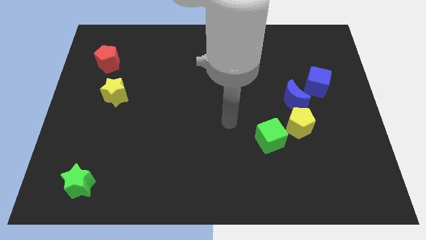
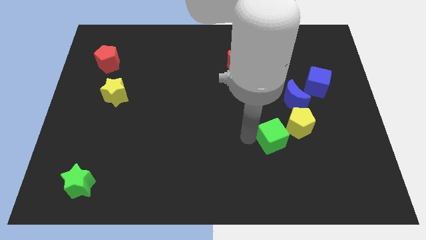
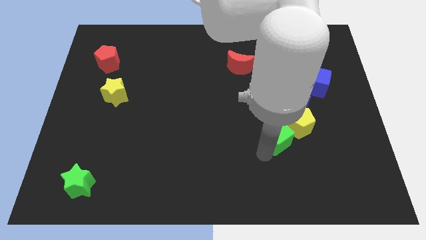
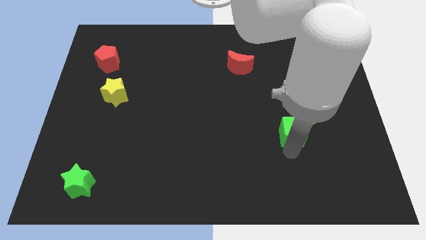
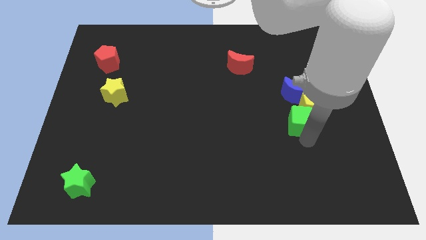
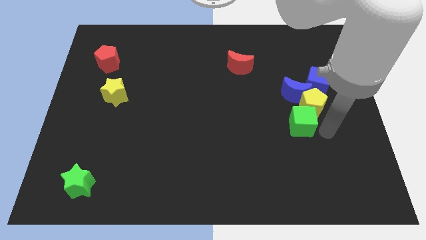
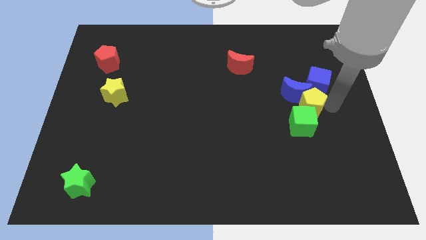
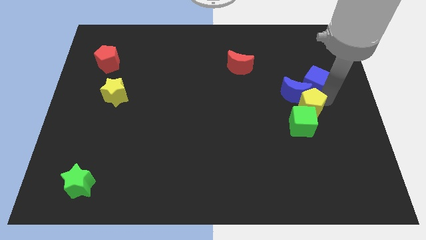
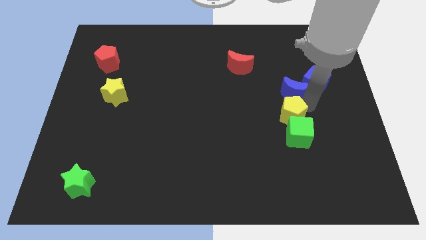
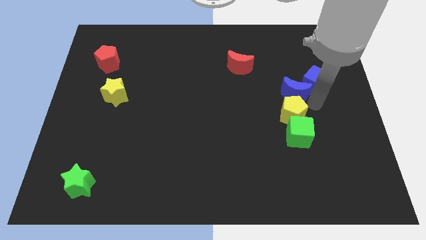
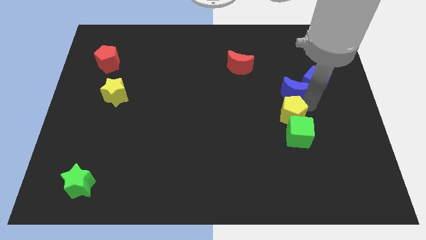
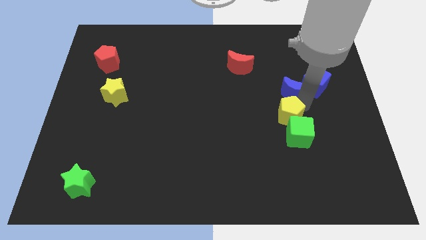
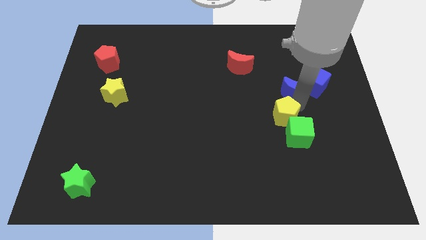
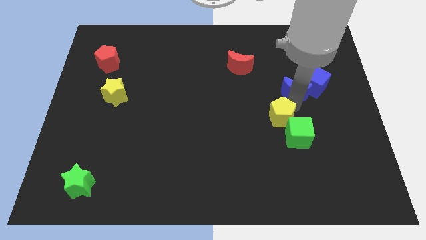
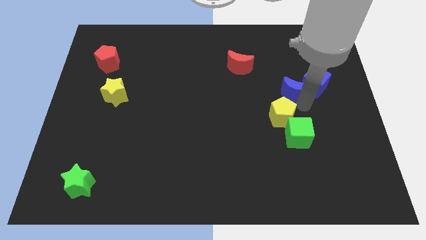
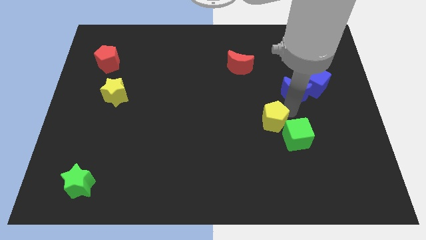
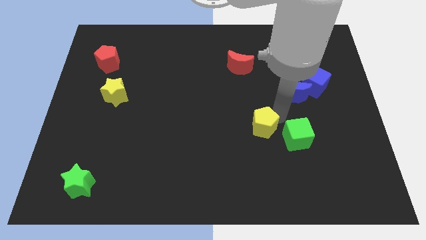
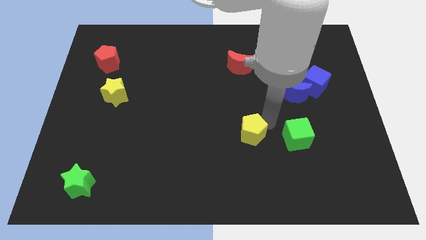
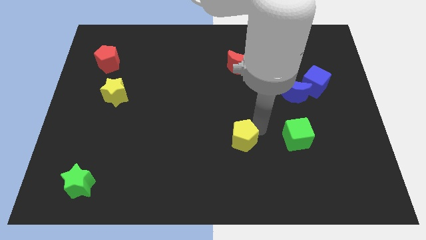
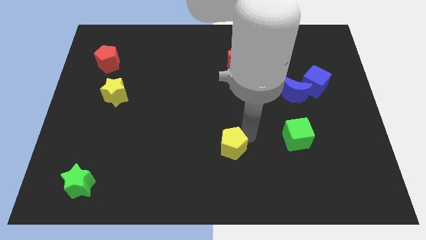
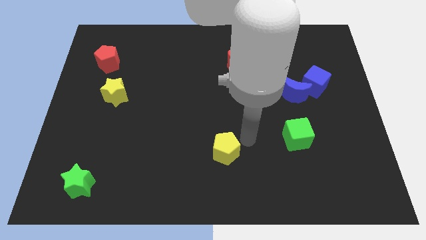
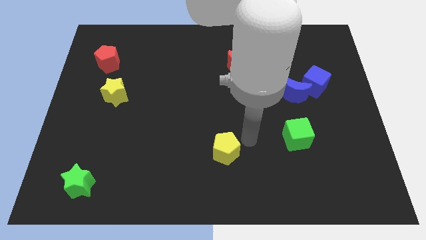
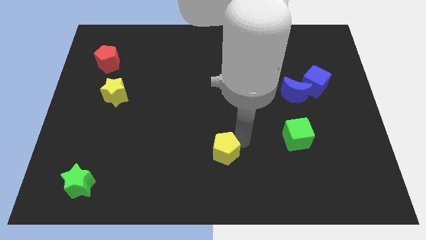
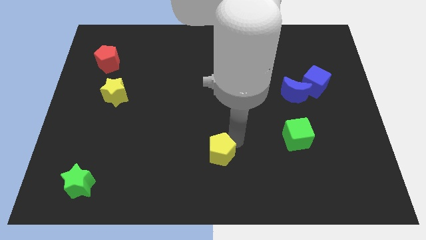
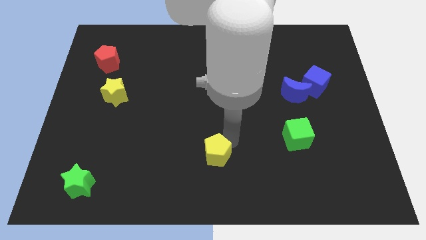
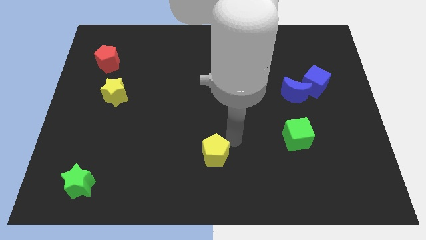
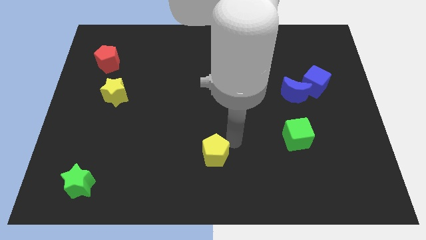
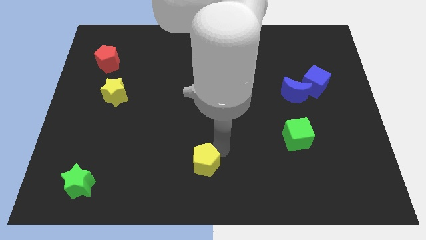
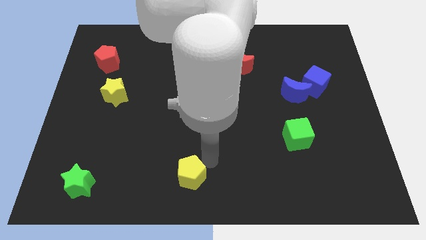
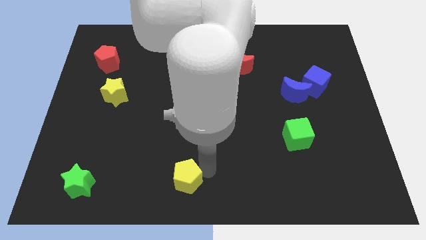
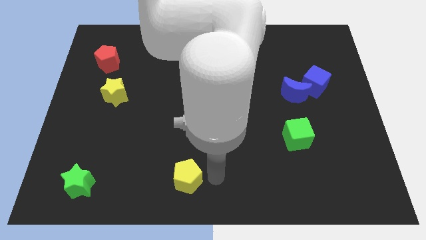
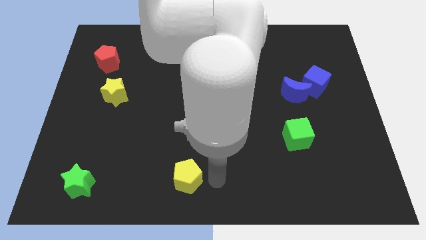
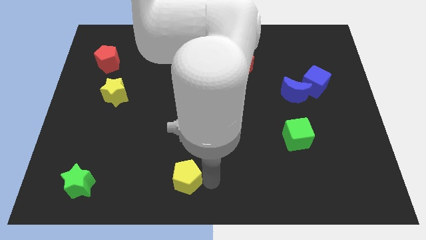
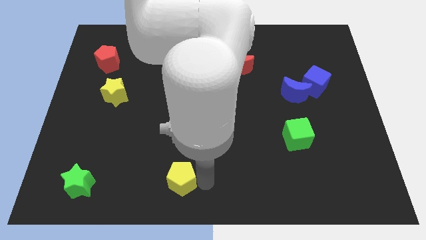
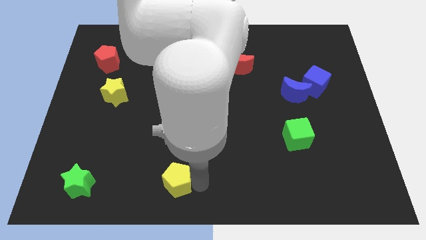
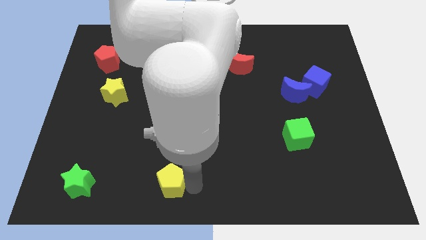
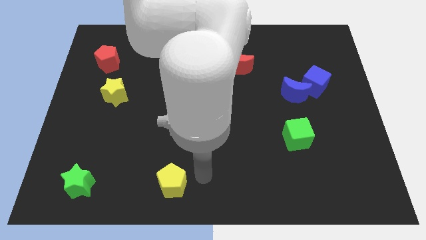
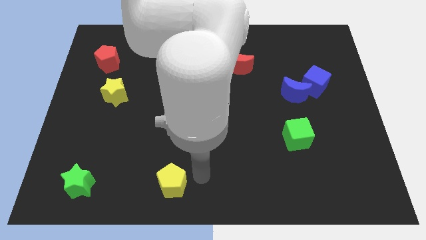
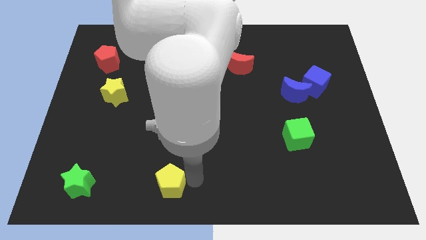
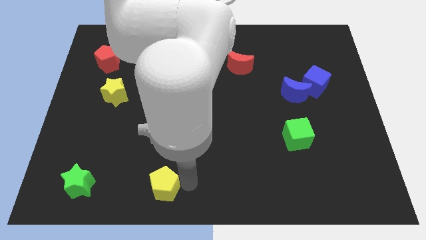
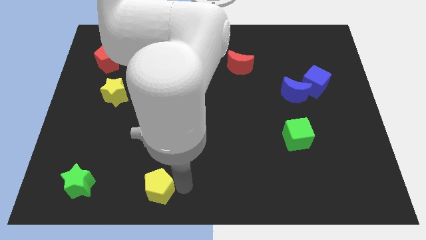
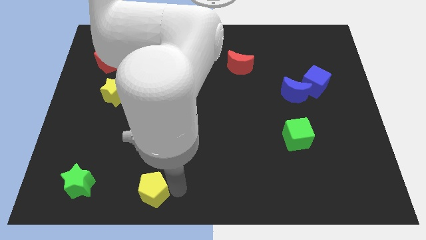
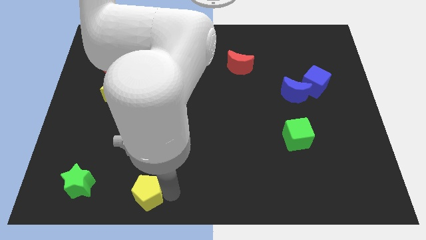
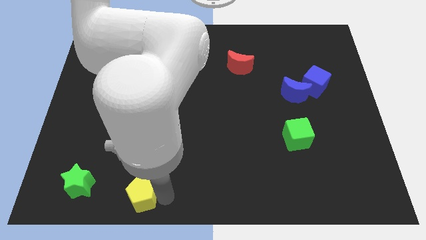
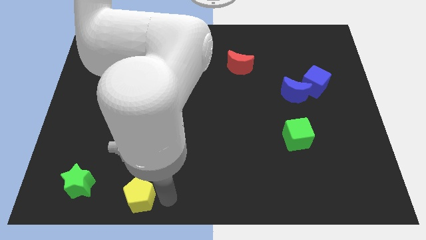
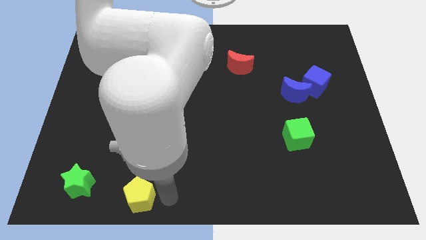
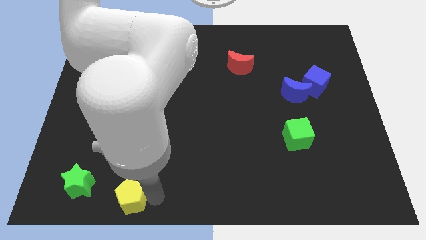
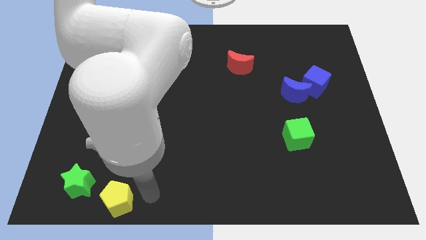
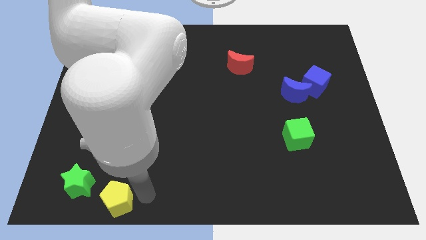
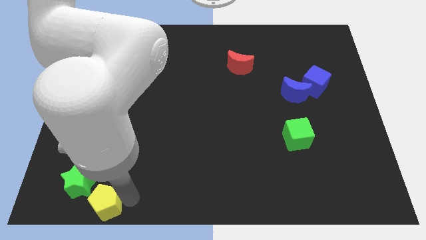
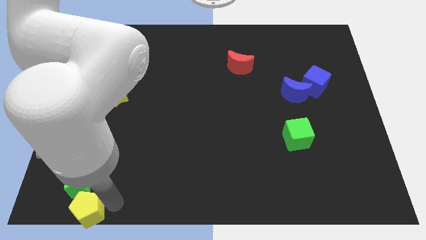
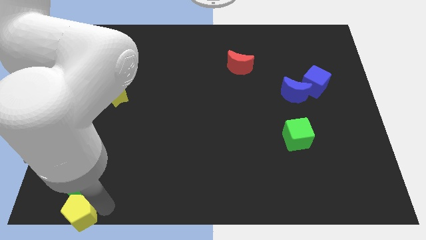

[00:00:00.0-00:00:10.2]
push the yellow pentagon to the lower left corner

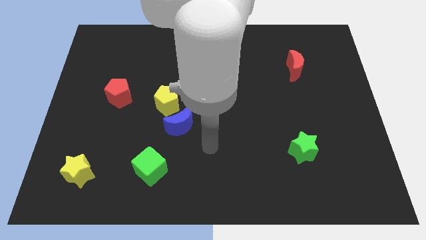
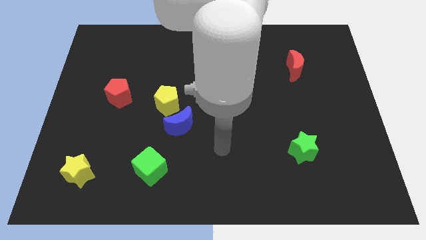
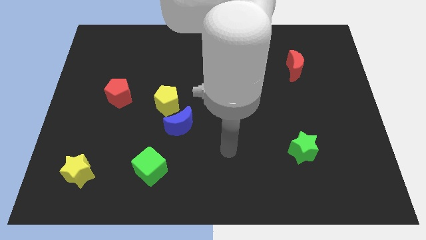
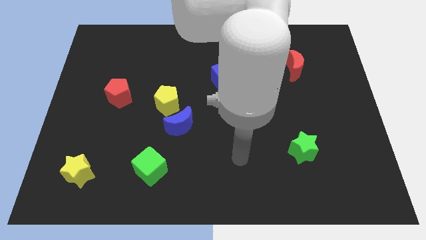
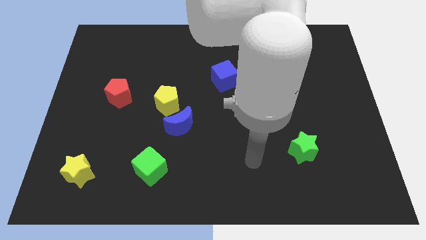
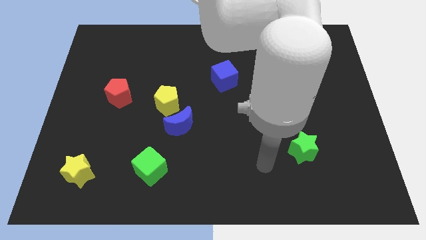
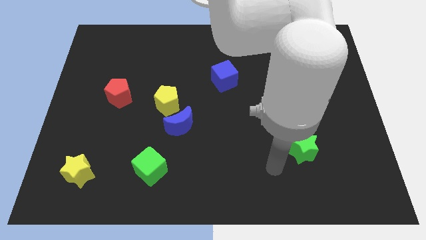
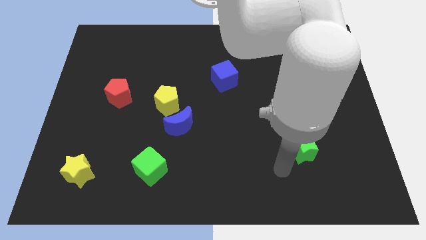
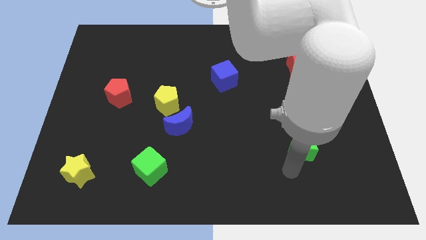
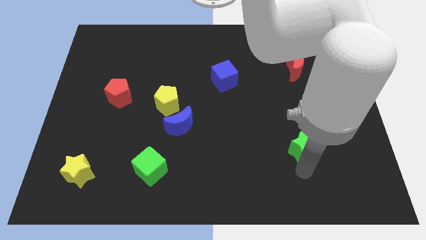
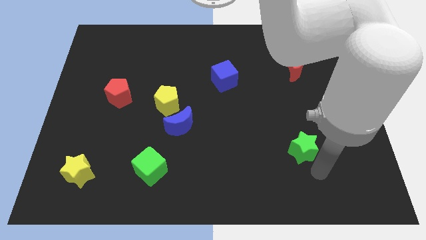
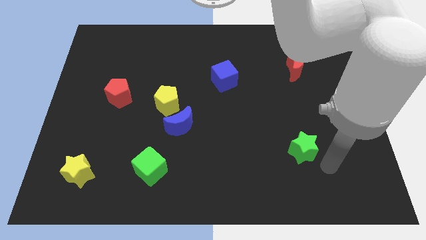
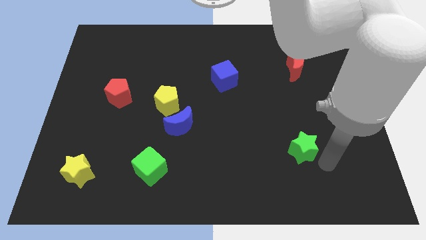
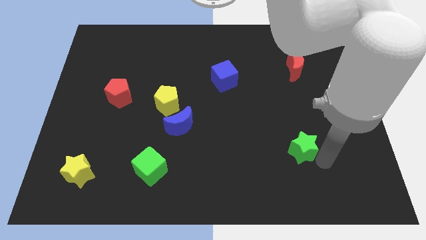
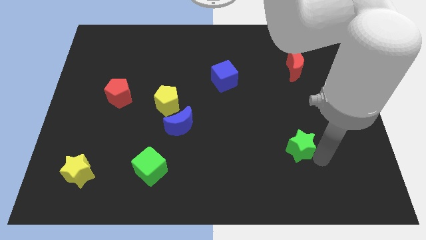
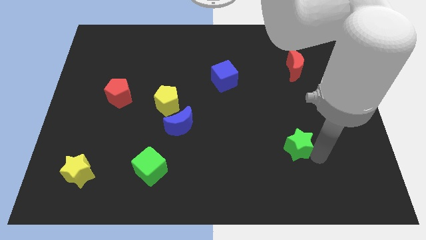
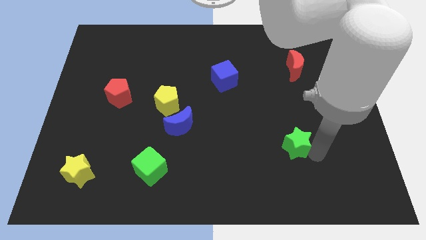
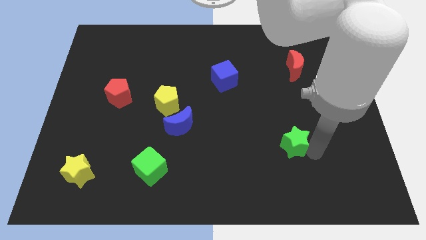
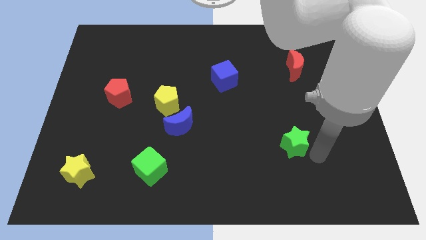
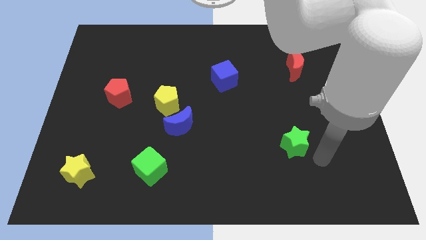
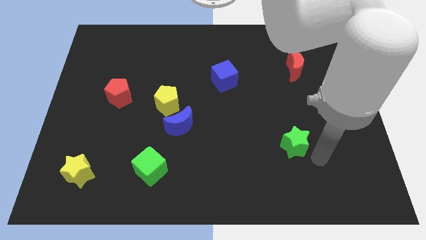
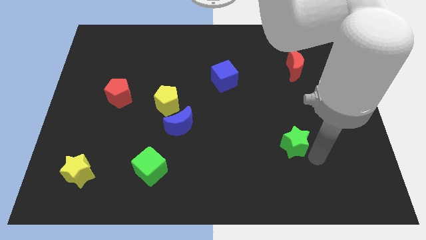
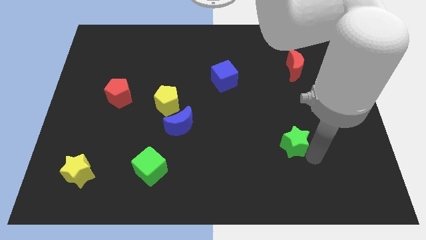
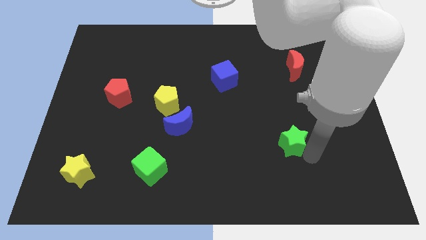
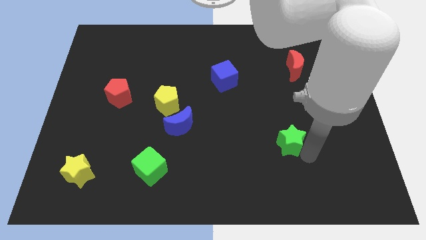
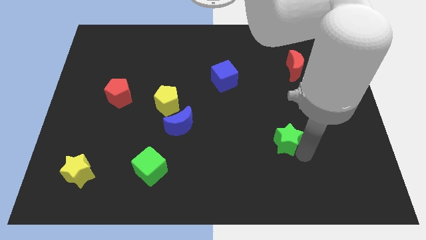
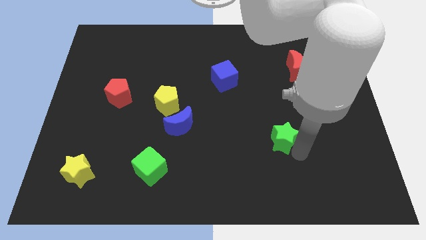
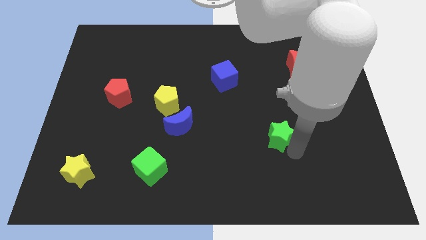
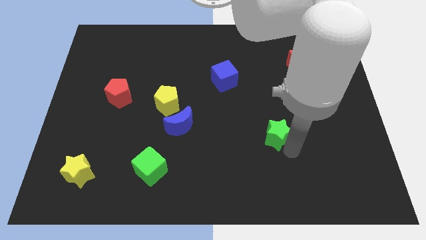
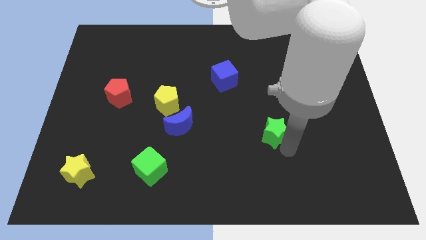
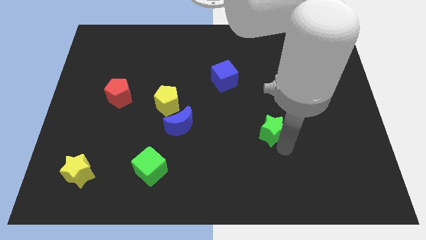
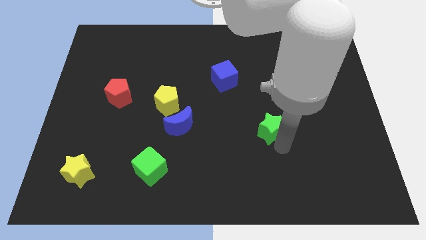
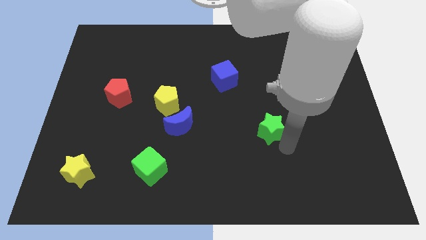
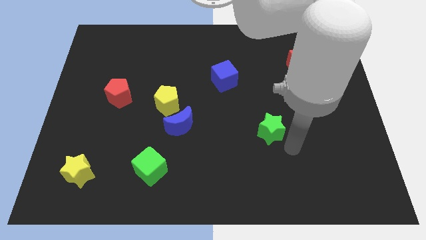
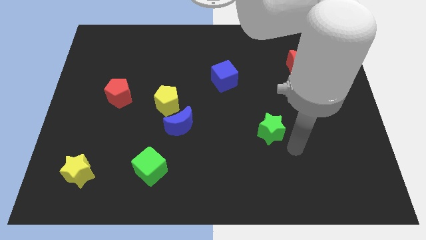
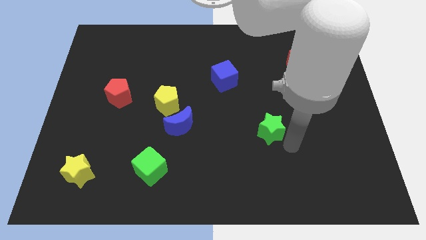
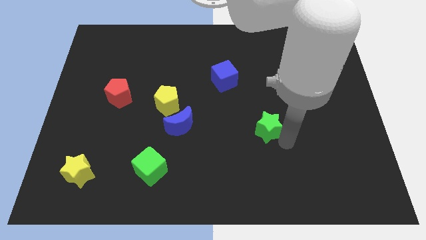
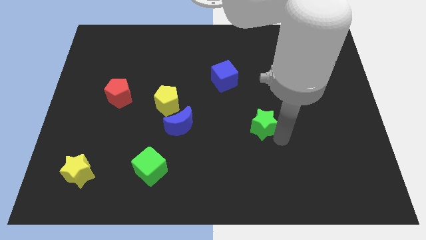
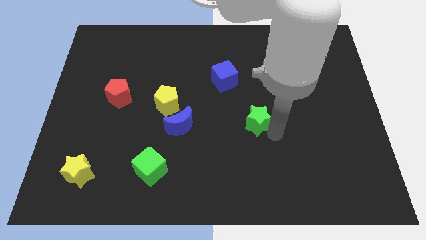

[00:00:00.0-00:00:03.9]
push the green star to the middle
